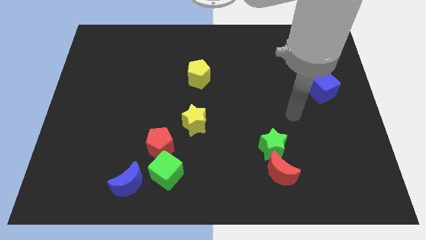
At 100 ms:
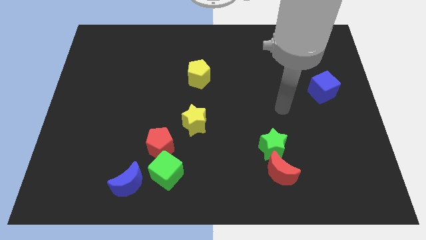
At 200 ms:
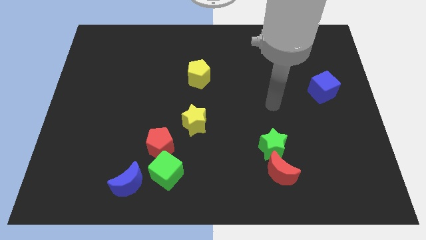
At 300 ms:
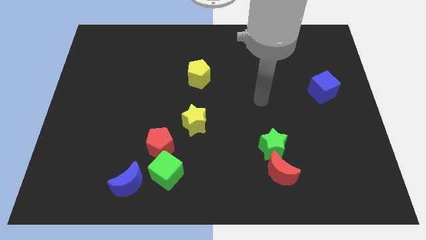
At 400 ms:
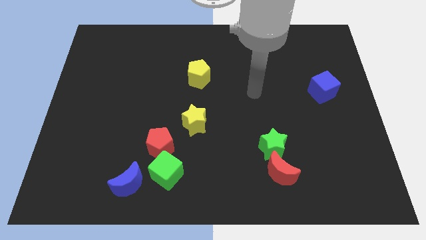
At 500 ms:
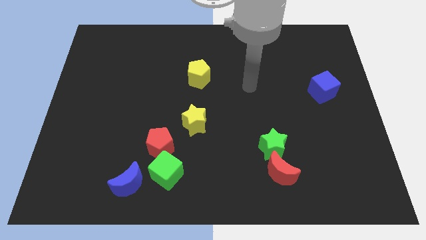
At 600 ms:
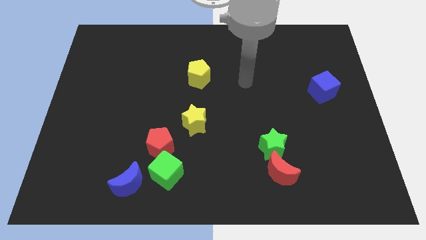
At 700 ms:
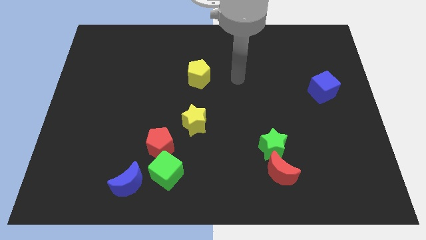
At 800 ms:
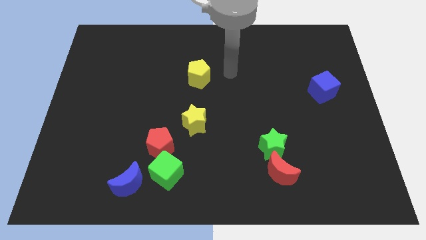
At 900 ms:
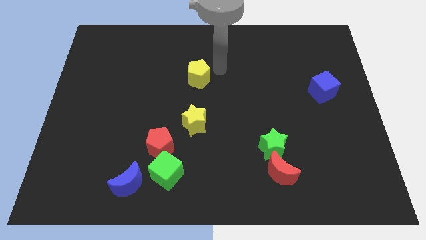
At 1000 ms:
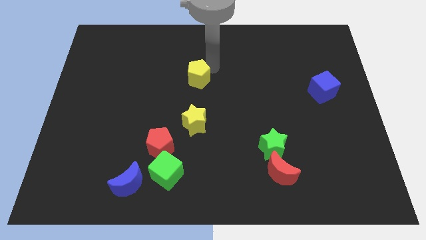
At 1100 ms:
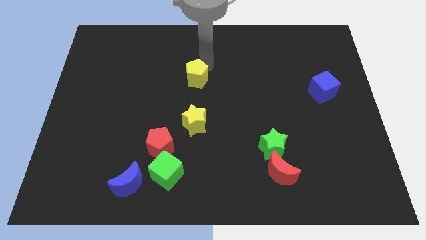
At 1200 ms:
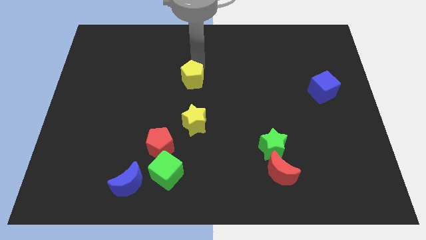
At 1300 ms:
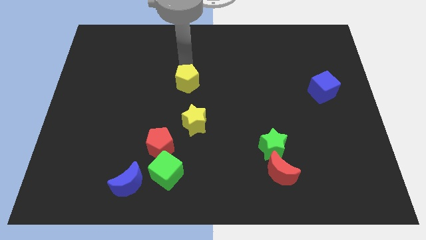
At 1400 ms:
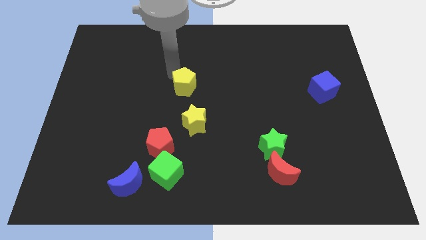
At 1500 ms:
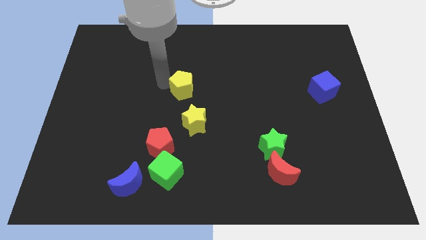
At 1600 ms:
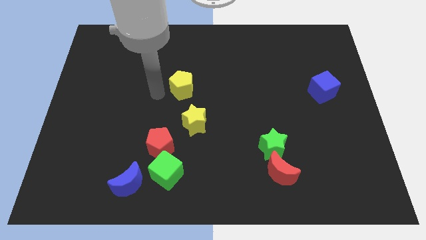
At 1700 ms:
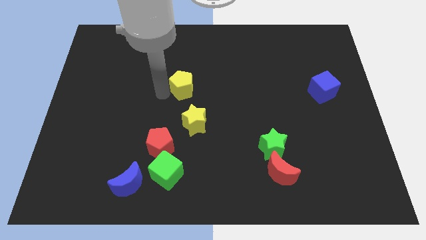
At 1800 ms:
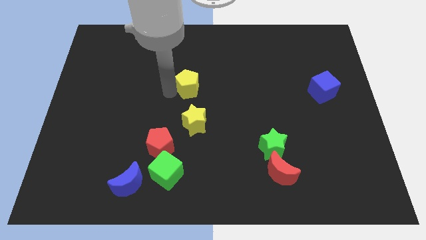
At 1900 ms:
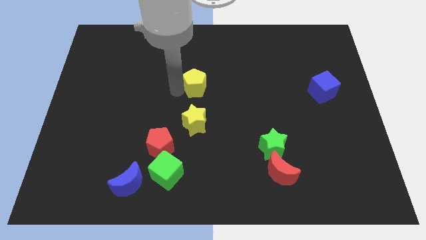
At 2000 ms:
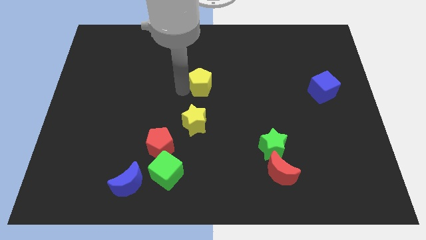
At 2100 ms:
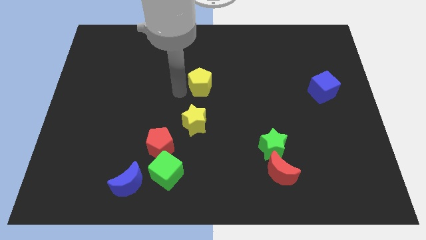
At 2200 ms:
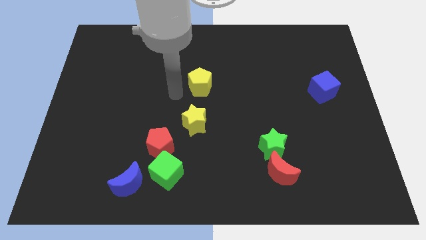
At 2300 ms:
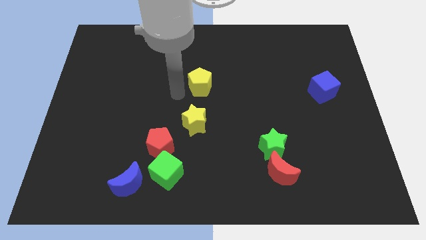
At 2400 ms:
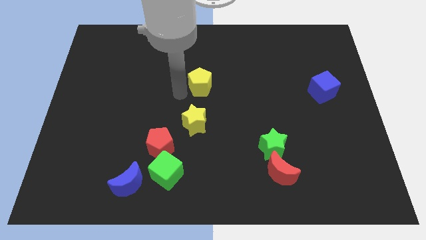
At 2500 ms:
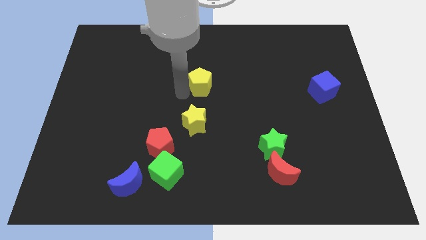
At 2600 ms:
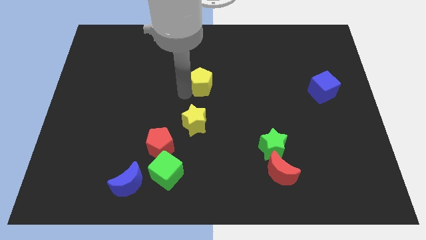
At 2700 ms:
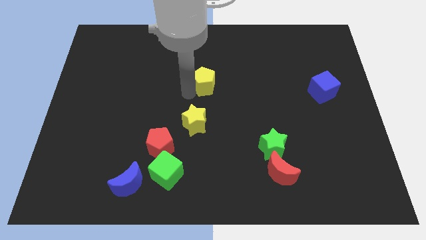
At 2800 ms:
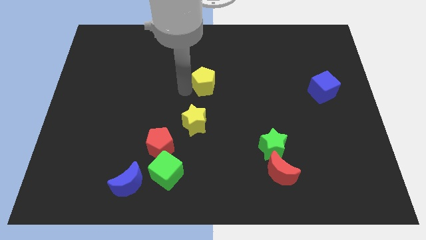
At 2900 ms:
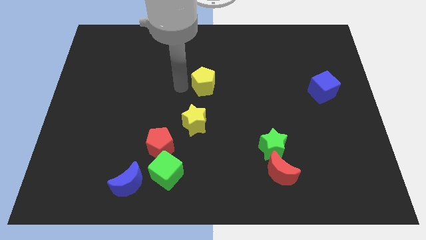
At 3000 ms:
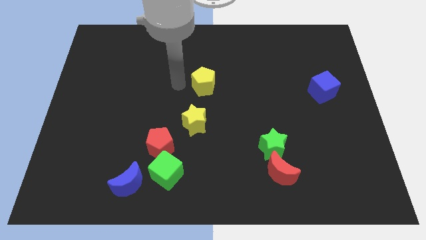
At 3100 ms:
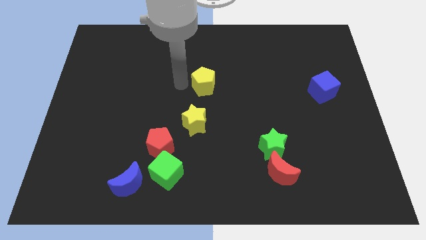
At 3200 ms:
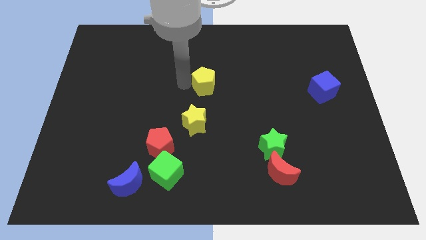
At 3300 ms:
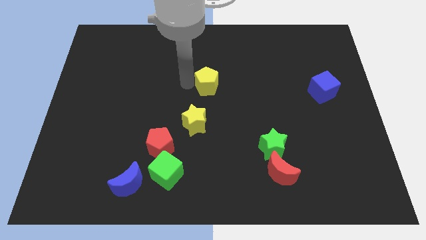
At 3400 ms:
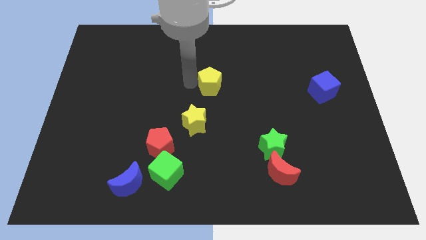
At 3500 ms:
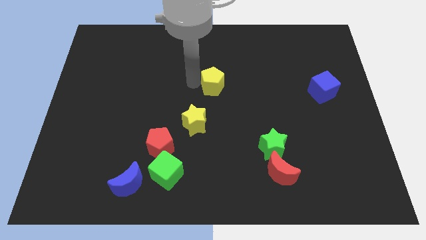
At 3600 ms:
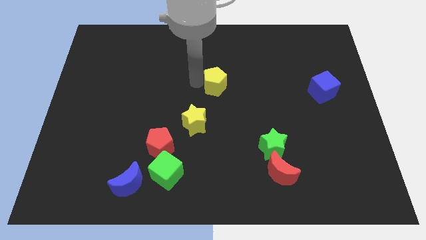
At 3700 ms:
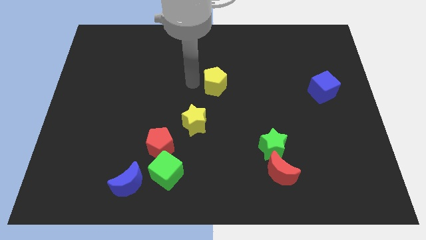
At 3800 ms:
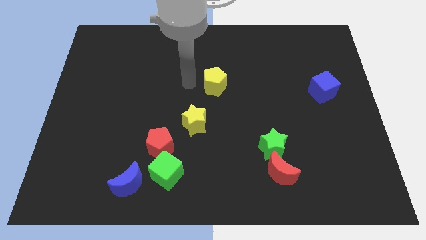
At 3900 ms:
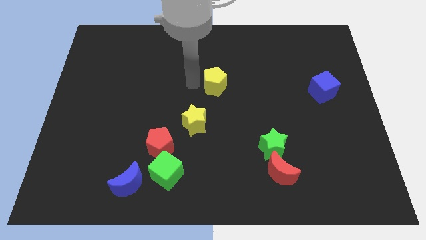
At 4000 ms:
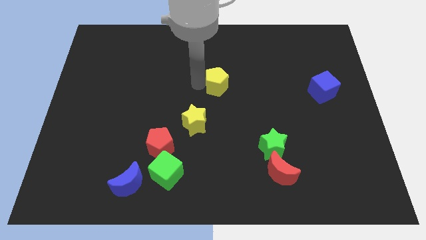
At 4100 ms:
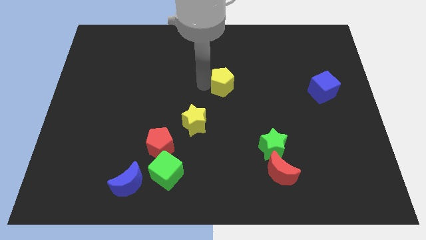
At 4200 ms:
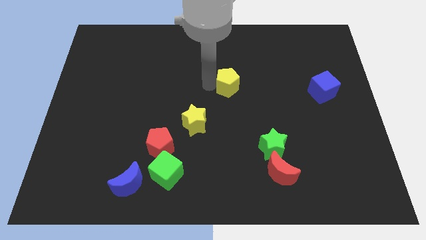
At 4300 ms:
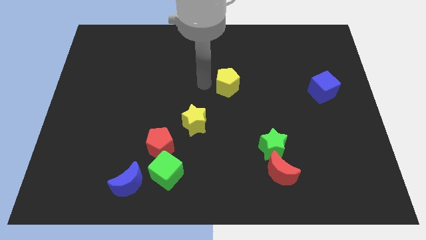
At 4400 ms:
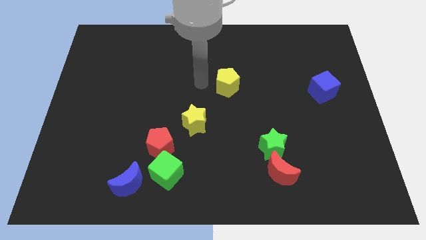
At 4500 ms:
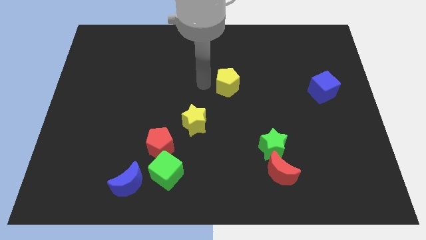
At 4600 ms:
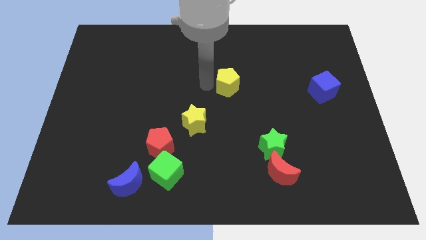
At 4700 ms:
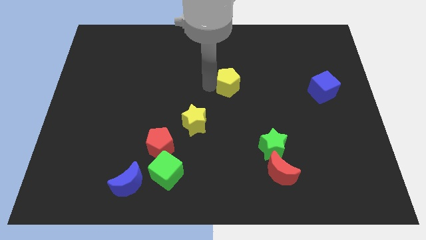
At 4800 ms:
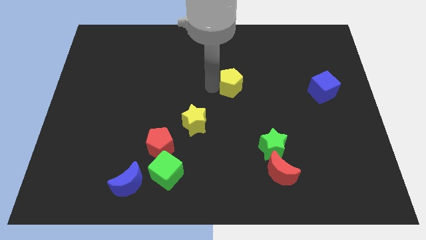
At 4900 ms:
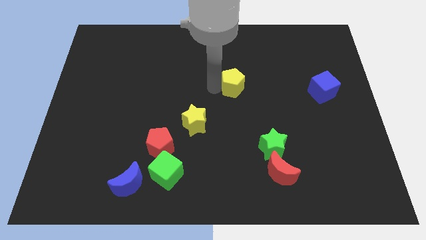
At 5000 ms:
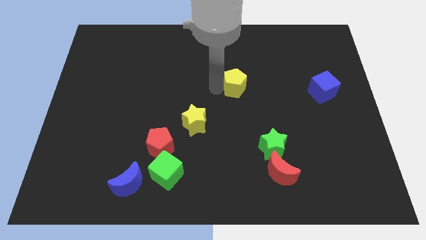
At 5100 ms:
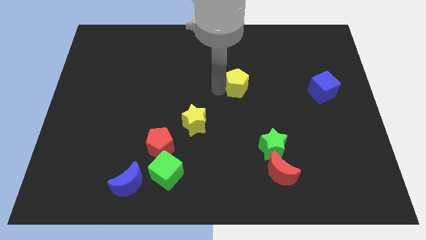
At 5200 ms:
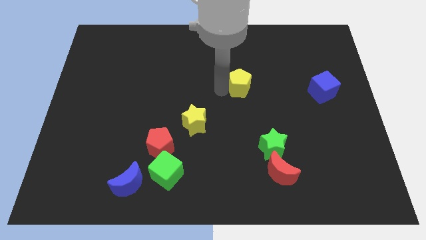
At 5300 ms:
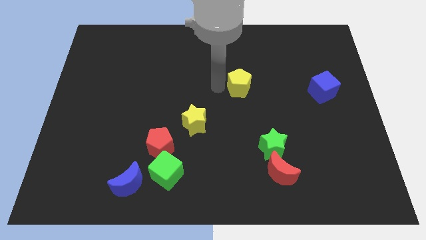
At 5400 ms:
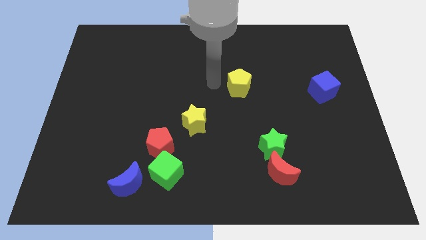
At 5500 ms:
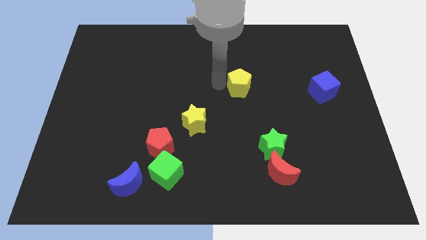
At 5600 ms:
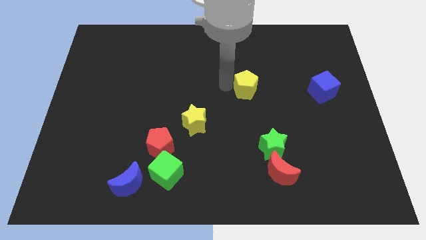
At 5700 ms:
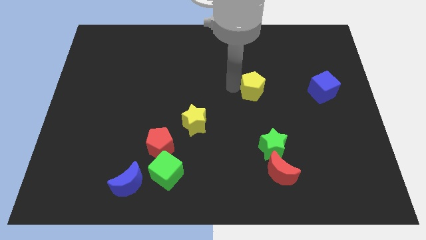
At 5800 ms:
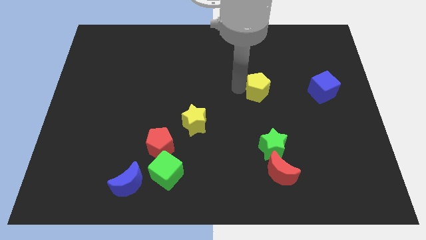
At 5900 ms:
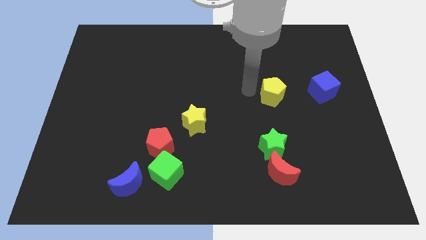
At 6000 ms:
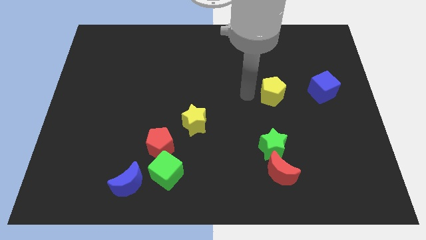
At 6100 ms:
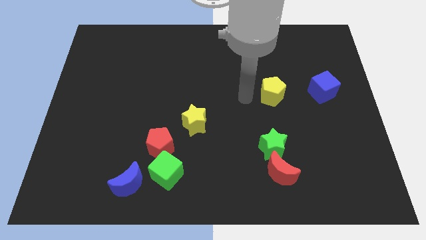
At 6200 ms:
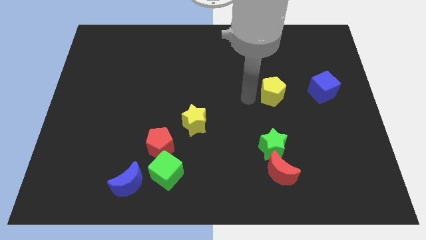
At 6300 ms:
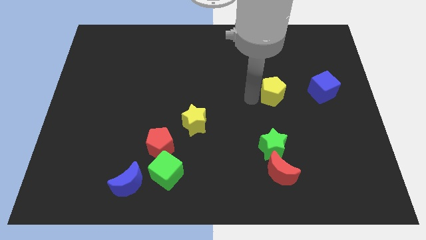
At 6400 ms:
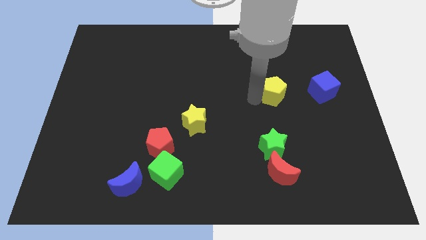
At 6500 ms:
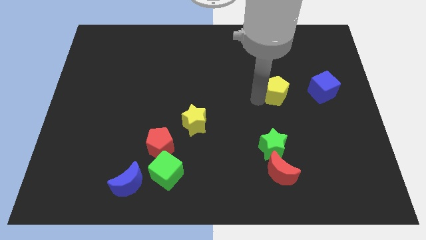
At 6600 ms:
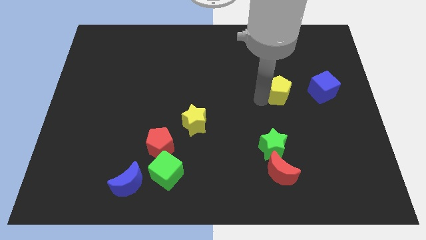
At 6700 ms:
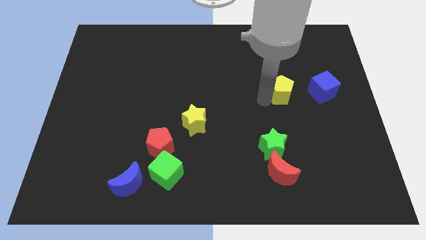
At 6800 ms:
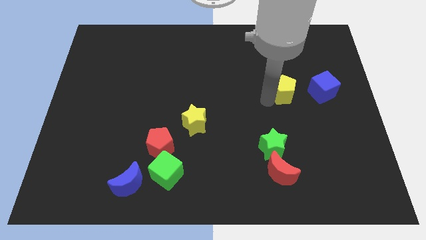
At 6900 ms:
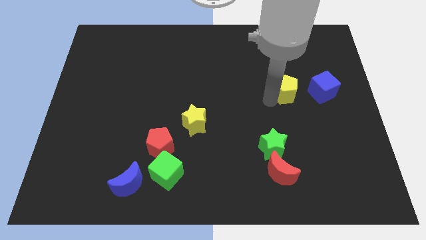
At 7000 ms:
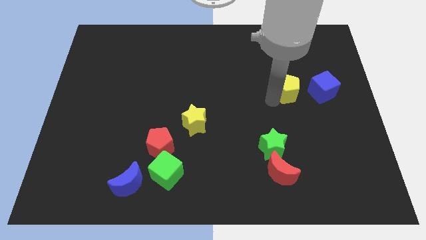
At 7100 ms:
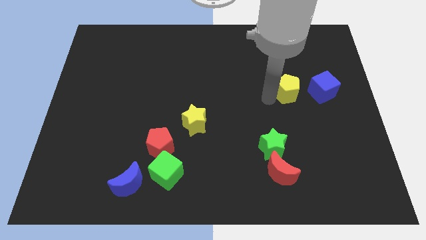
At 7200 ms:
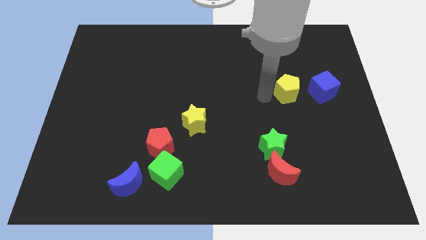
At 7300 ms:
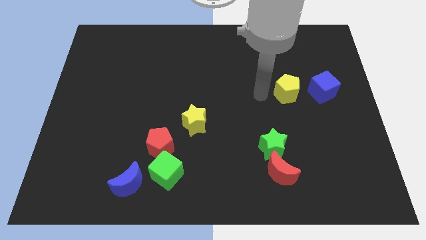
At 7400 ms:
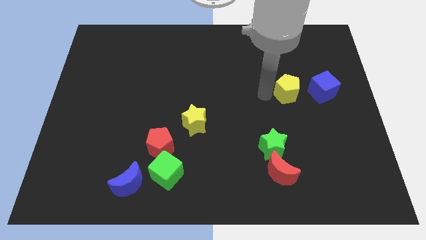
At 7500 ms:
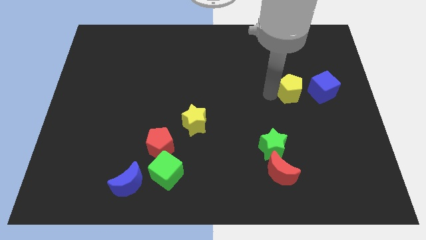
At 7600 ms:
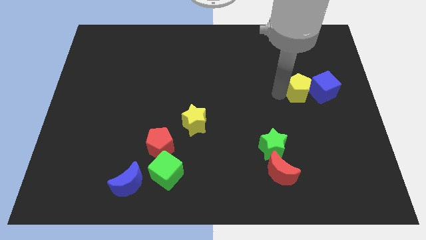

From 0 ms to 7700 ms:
push the yellow pentagon close to the blue cube
